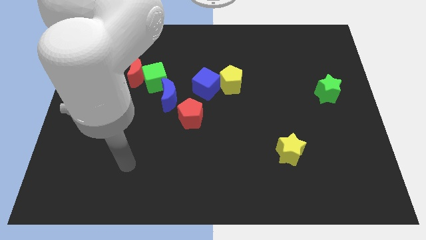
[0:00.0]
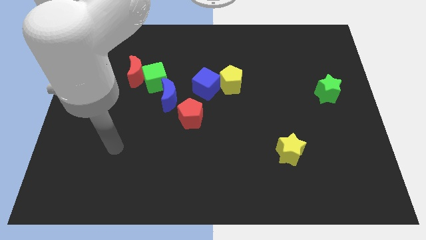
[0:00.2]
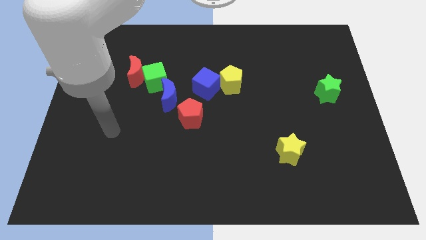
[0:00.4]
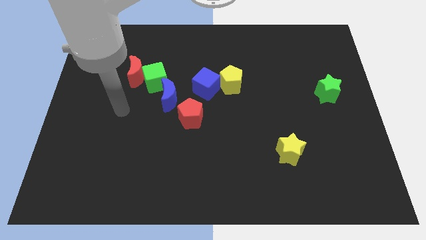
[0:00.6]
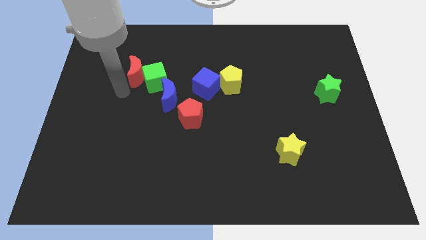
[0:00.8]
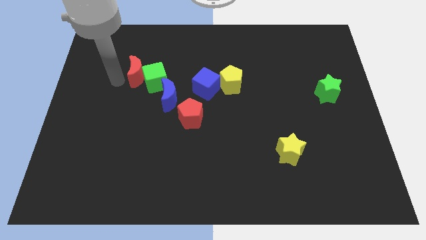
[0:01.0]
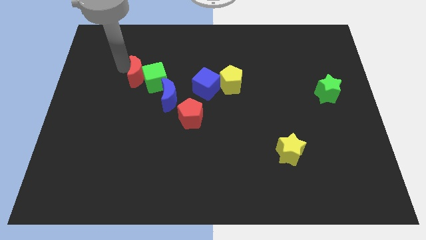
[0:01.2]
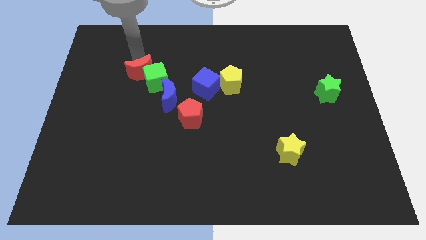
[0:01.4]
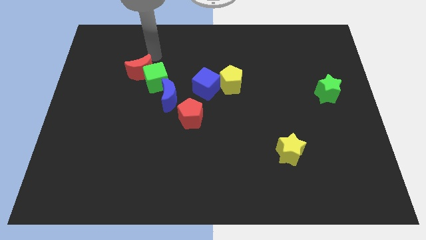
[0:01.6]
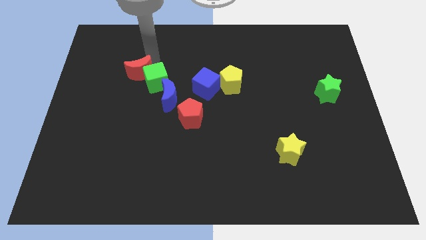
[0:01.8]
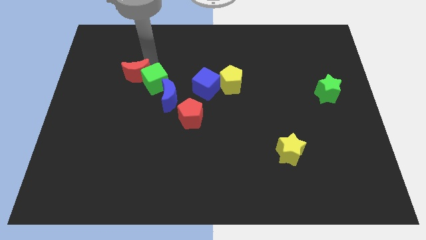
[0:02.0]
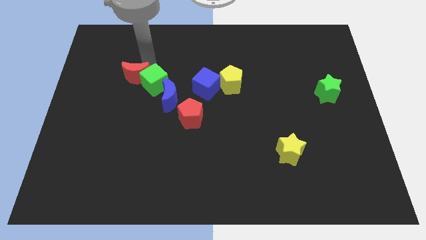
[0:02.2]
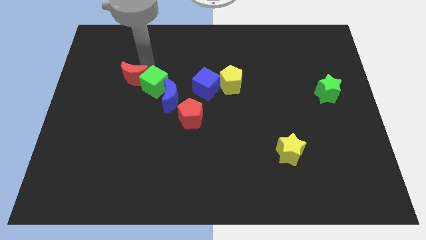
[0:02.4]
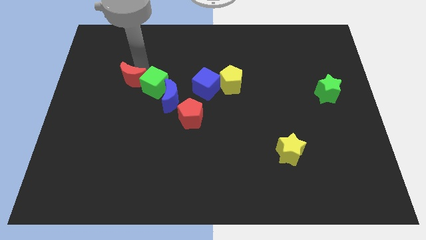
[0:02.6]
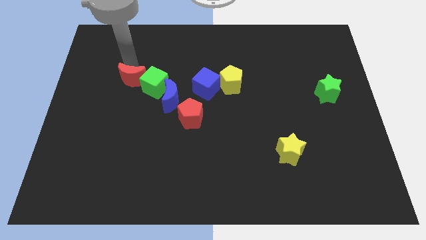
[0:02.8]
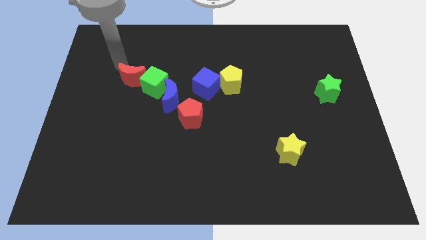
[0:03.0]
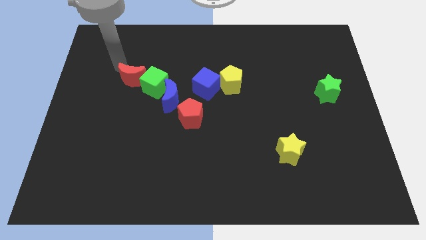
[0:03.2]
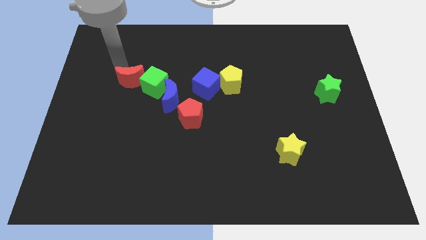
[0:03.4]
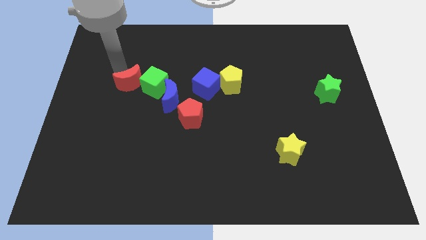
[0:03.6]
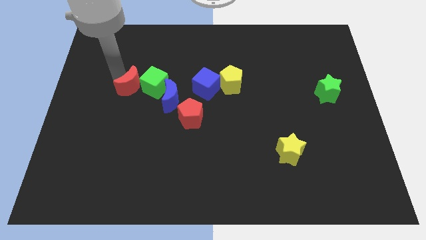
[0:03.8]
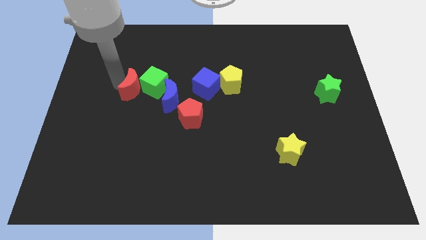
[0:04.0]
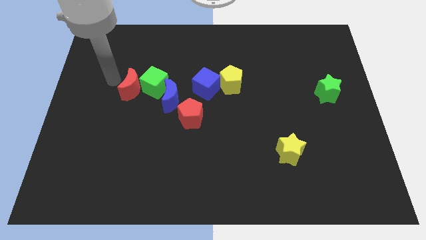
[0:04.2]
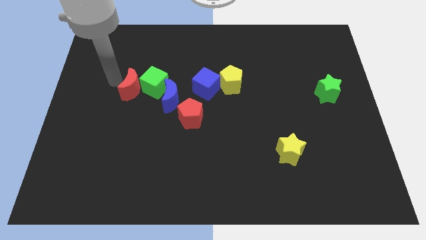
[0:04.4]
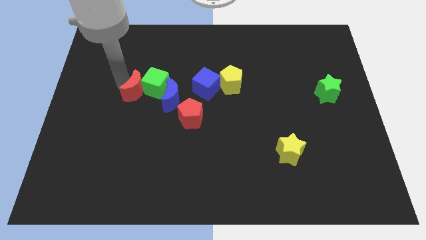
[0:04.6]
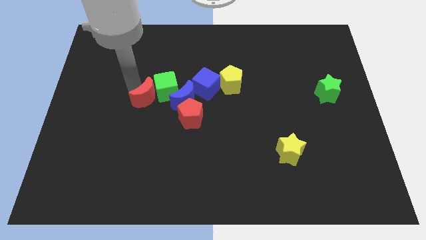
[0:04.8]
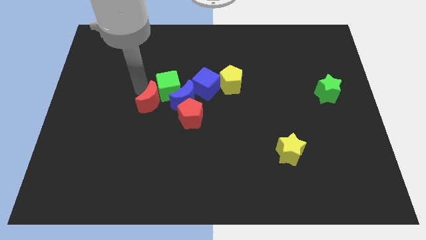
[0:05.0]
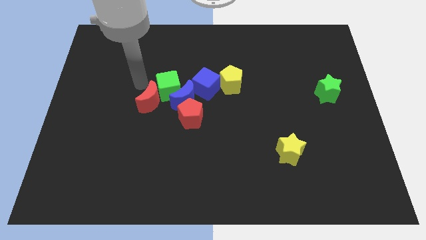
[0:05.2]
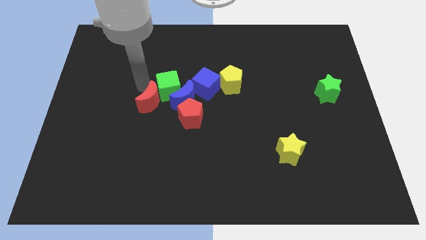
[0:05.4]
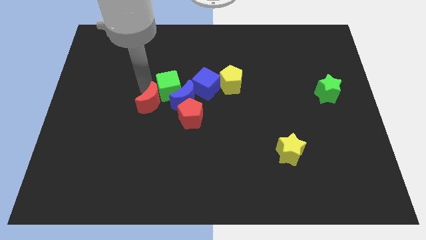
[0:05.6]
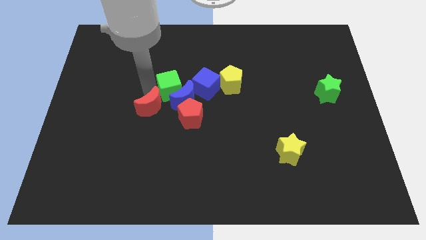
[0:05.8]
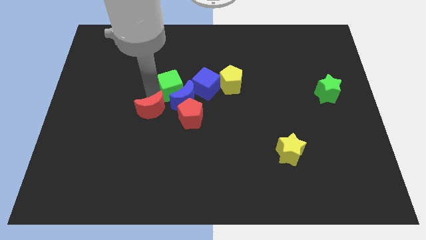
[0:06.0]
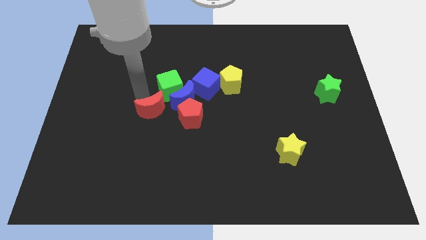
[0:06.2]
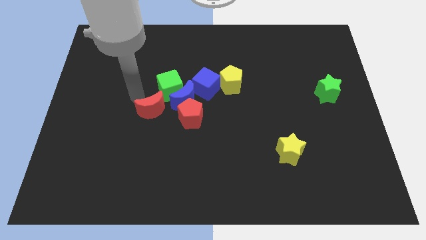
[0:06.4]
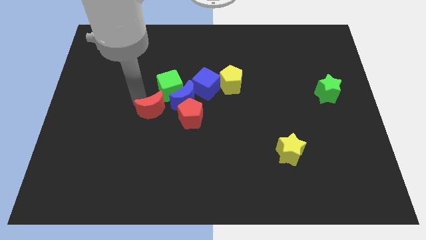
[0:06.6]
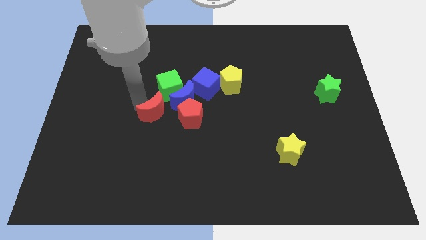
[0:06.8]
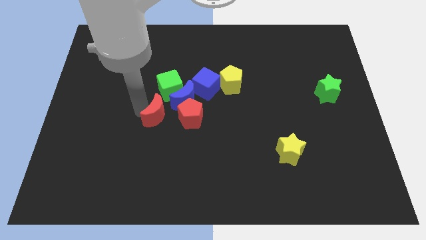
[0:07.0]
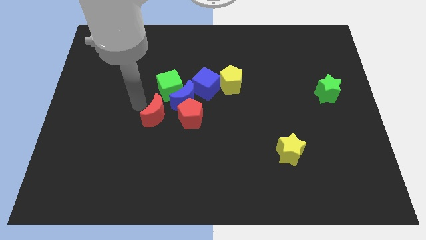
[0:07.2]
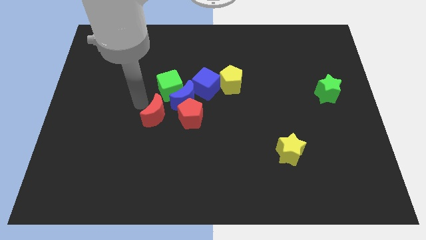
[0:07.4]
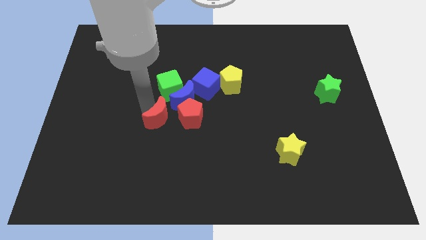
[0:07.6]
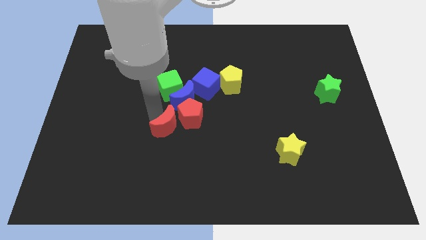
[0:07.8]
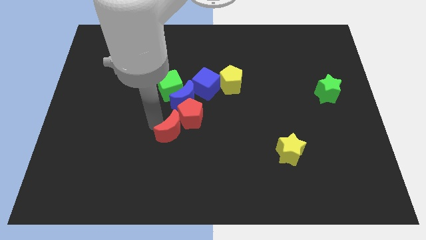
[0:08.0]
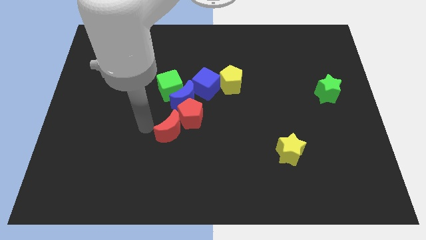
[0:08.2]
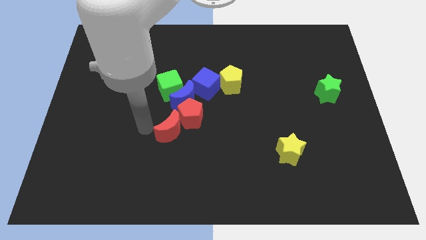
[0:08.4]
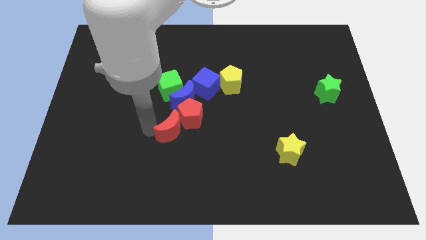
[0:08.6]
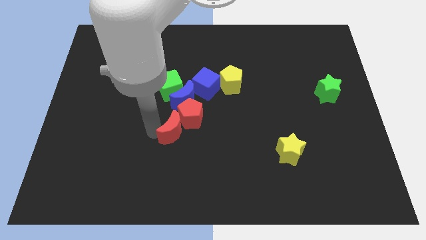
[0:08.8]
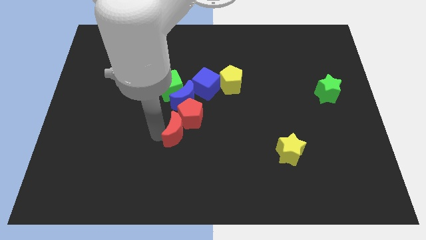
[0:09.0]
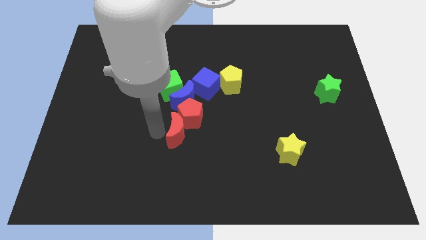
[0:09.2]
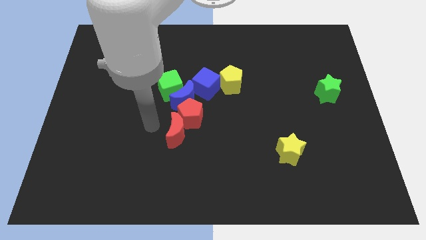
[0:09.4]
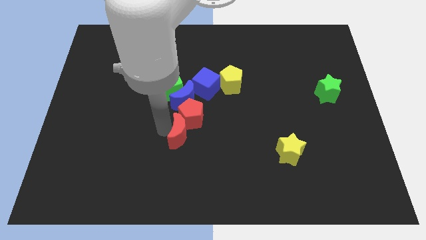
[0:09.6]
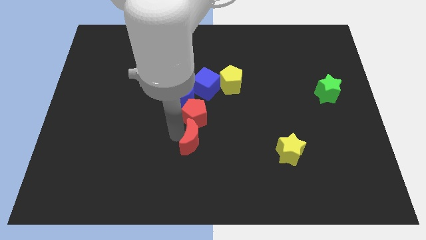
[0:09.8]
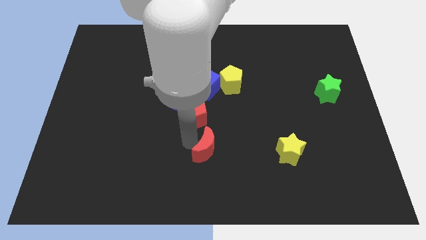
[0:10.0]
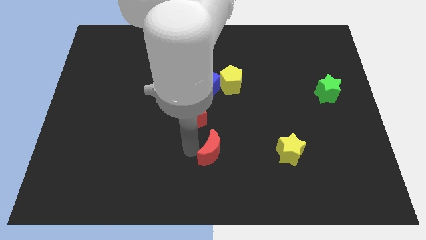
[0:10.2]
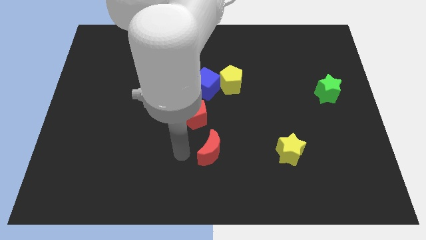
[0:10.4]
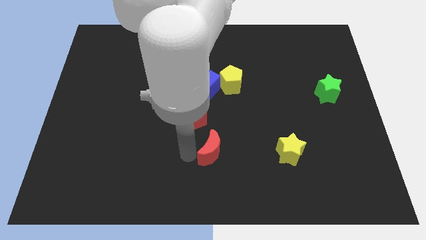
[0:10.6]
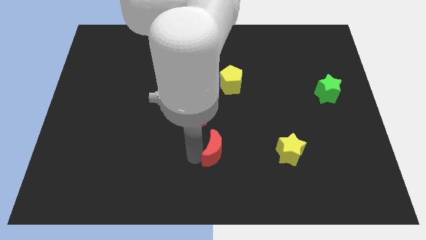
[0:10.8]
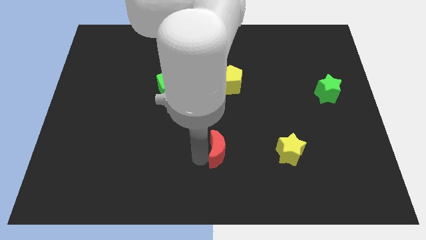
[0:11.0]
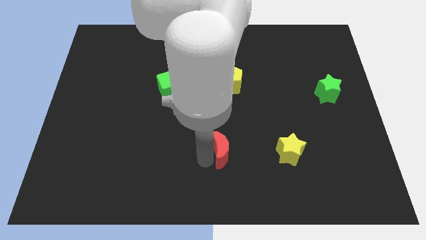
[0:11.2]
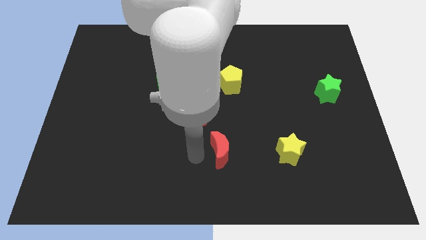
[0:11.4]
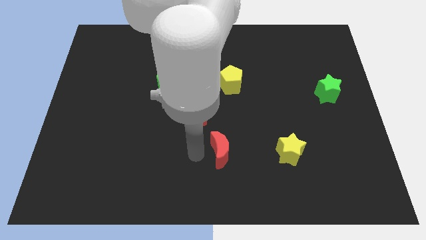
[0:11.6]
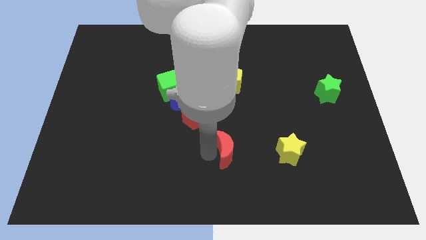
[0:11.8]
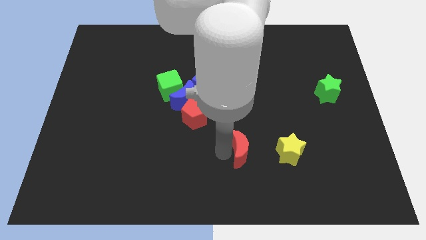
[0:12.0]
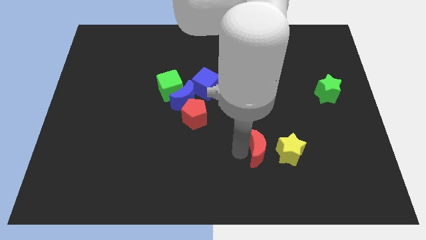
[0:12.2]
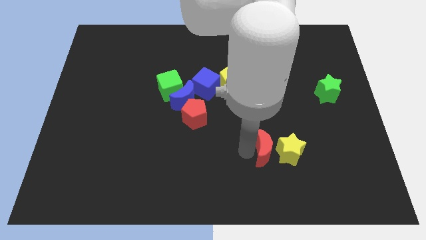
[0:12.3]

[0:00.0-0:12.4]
slide the red moon towards the yellow star

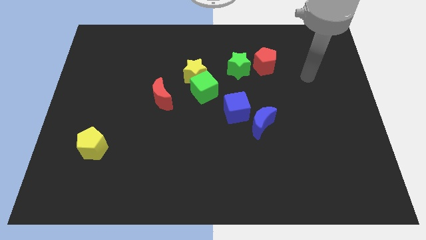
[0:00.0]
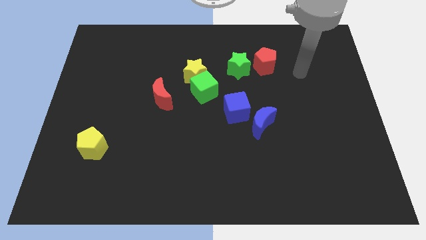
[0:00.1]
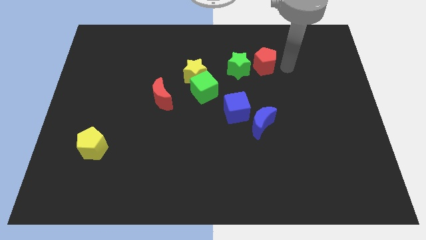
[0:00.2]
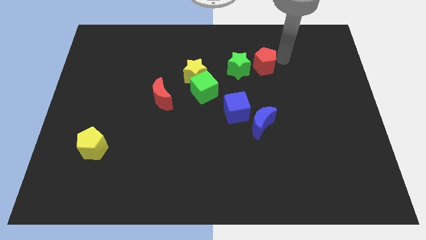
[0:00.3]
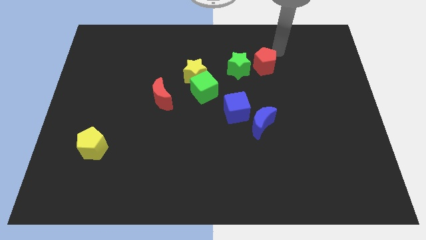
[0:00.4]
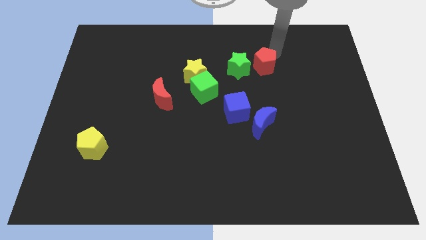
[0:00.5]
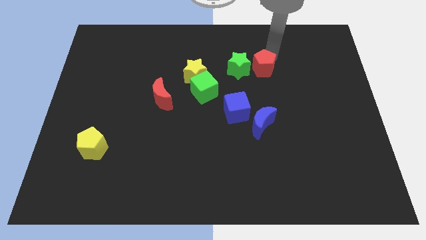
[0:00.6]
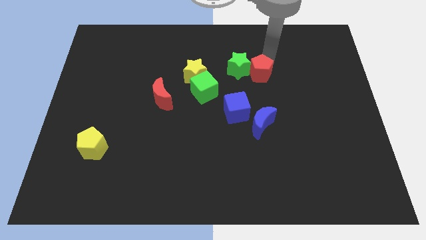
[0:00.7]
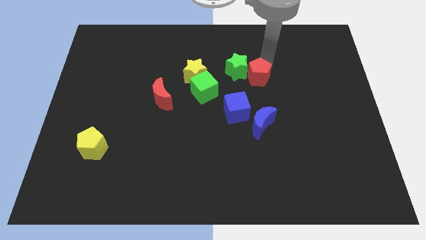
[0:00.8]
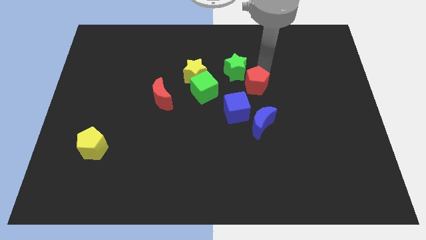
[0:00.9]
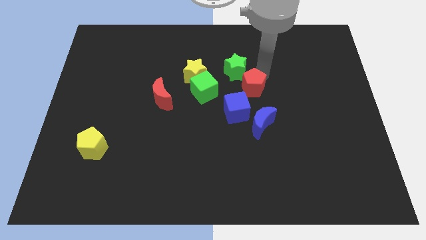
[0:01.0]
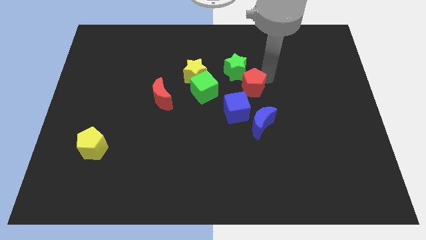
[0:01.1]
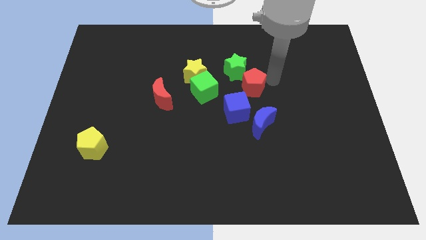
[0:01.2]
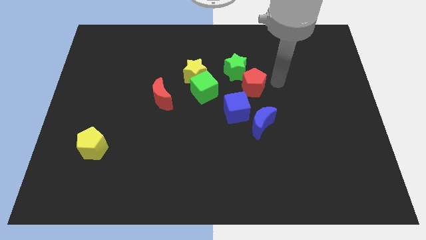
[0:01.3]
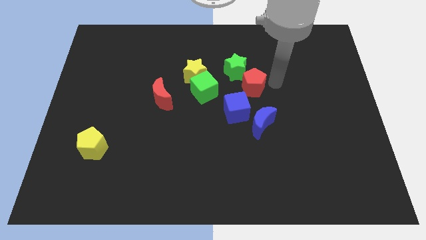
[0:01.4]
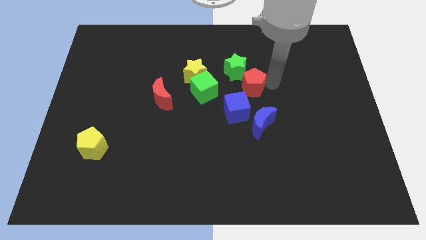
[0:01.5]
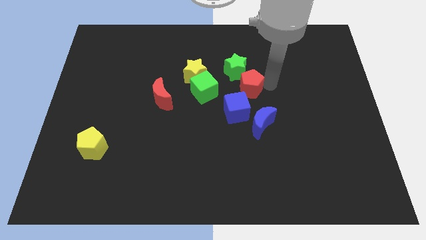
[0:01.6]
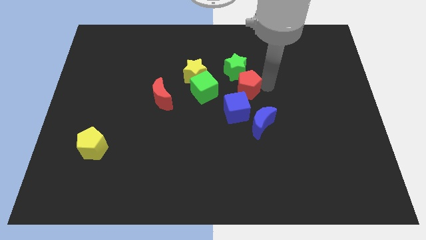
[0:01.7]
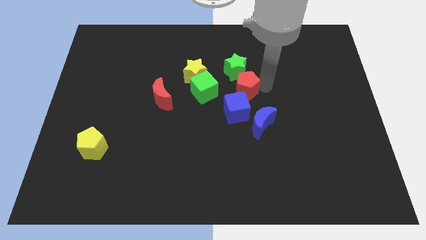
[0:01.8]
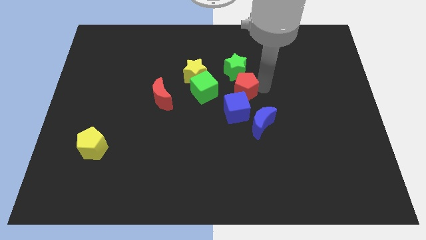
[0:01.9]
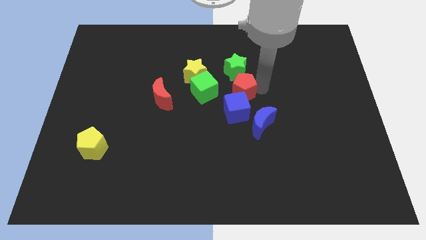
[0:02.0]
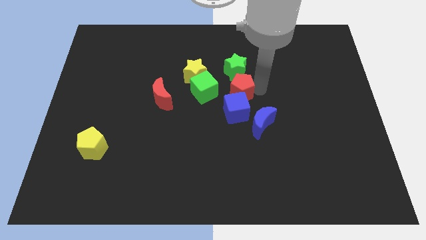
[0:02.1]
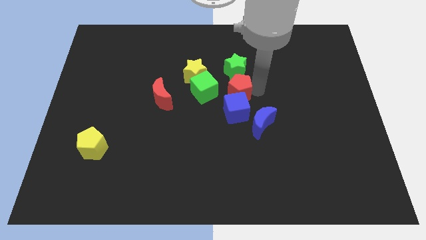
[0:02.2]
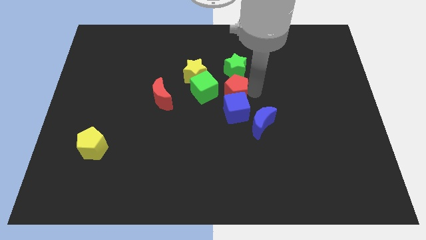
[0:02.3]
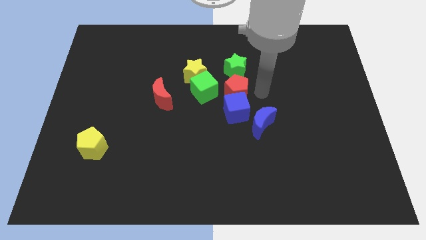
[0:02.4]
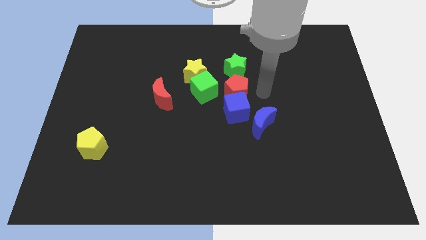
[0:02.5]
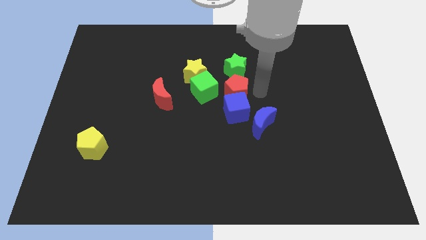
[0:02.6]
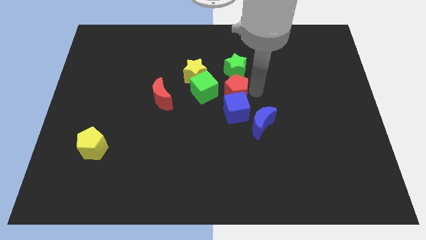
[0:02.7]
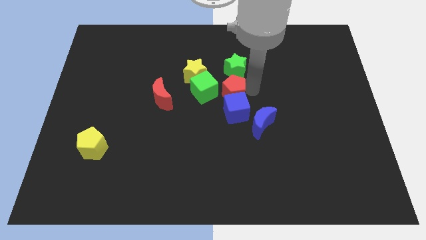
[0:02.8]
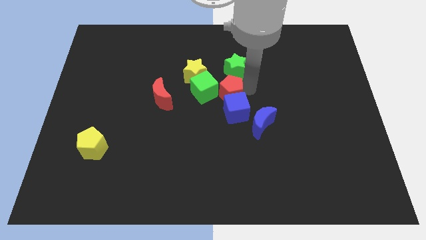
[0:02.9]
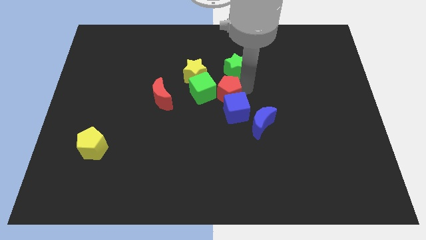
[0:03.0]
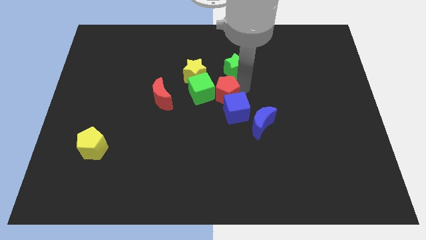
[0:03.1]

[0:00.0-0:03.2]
put the red pentagon close to the green cube
